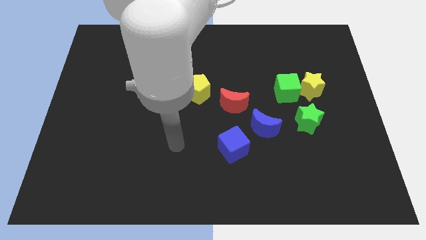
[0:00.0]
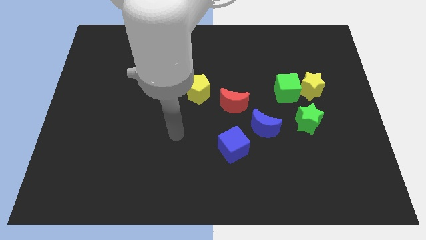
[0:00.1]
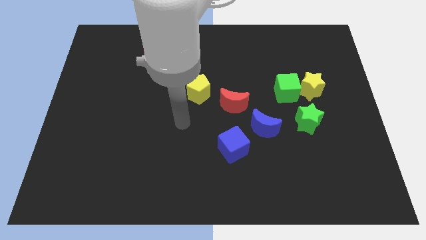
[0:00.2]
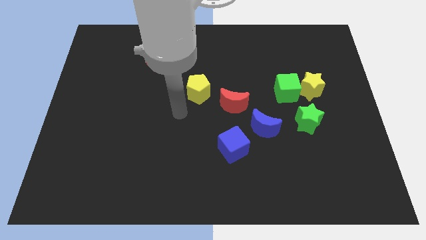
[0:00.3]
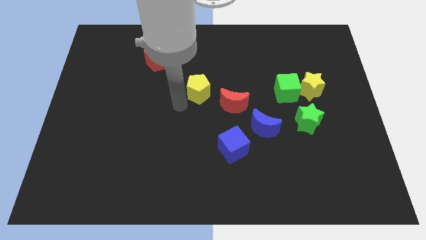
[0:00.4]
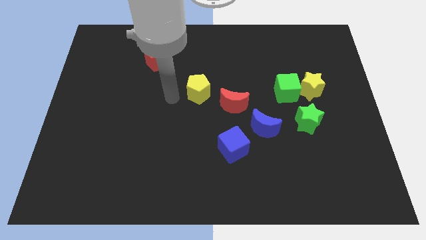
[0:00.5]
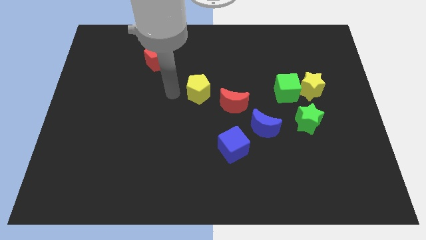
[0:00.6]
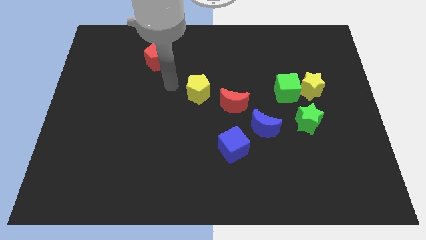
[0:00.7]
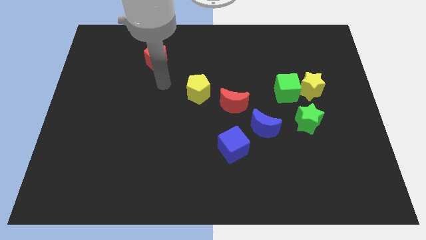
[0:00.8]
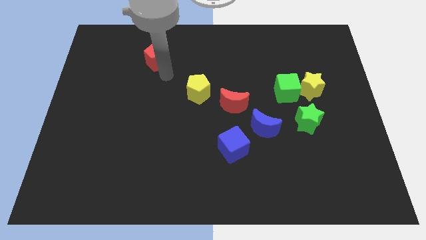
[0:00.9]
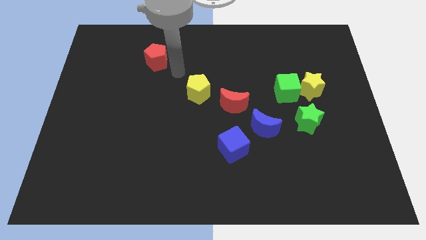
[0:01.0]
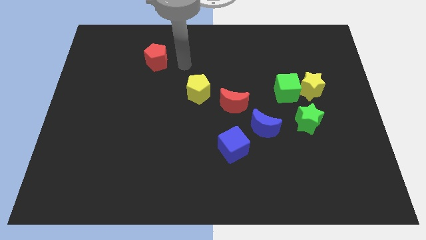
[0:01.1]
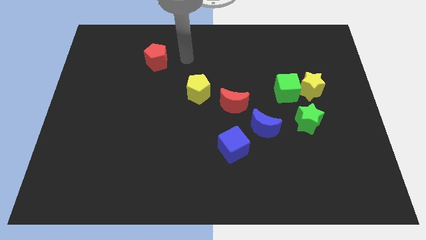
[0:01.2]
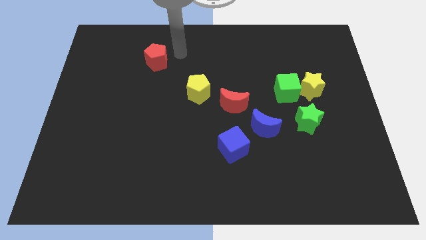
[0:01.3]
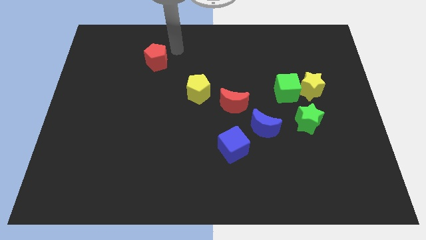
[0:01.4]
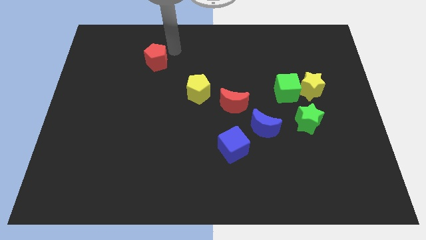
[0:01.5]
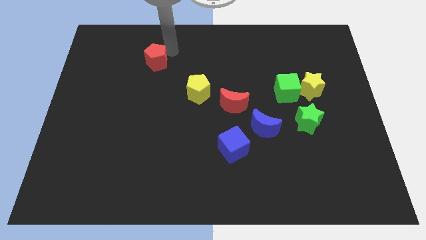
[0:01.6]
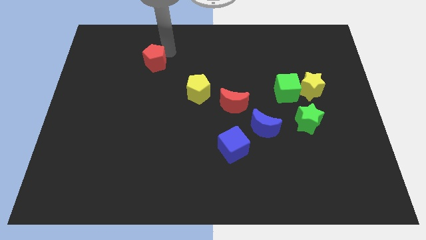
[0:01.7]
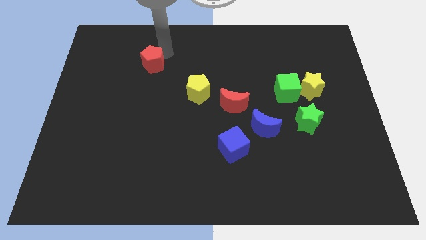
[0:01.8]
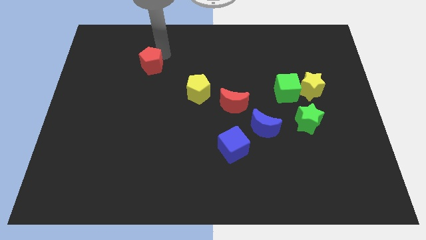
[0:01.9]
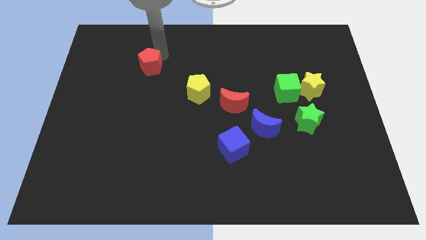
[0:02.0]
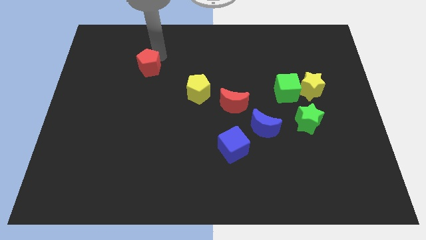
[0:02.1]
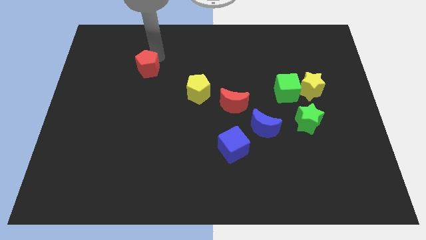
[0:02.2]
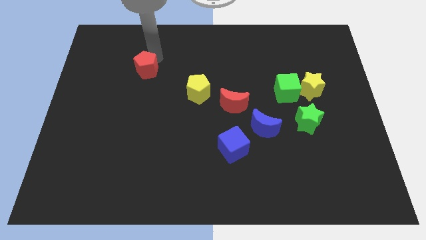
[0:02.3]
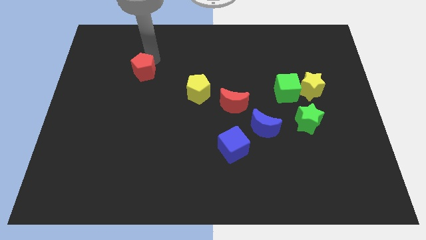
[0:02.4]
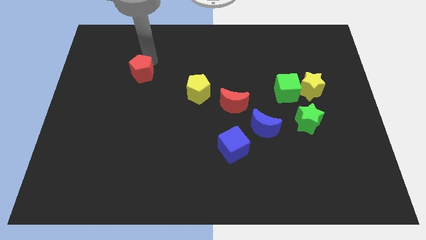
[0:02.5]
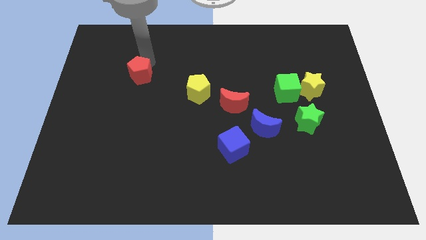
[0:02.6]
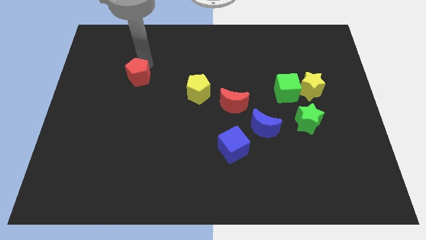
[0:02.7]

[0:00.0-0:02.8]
move the red pentagon slightly diagonally downwards and left

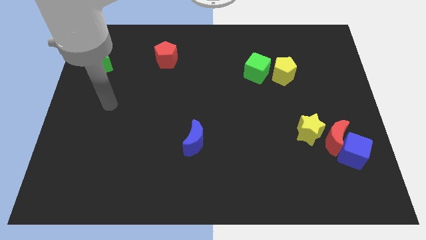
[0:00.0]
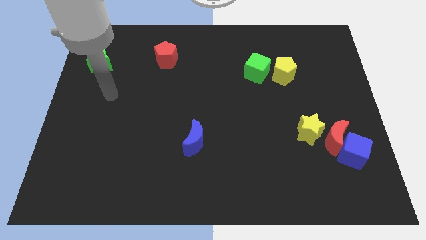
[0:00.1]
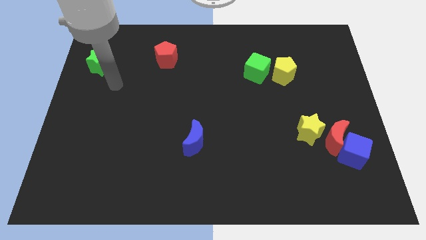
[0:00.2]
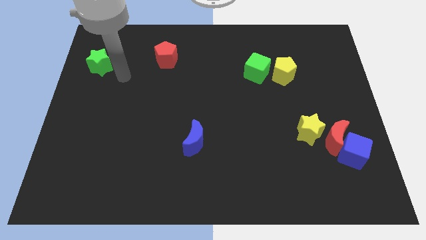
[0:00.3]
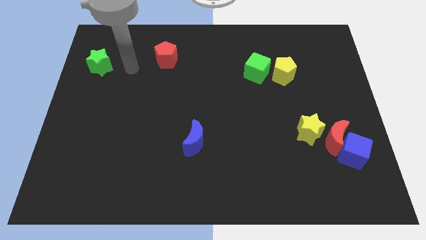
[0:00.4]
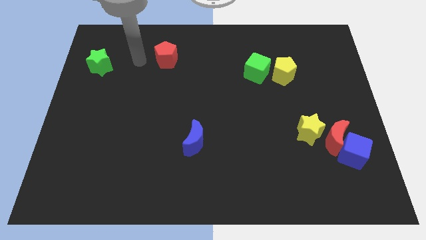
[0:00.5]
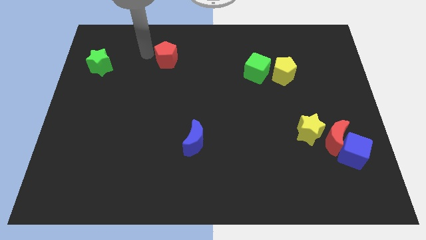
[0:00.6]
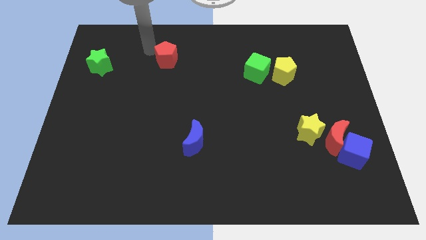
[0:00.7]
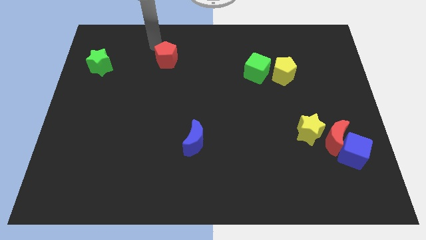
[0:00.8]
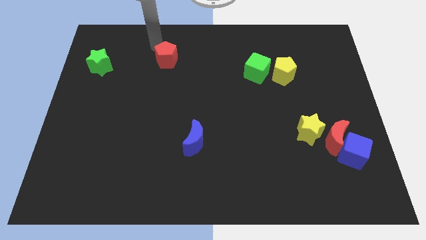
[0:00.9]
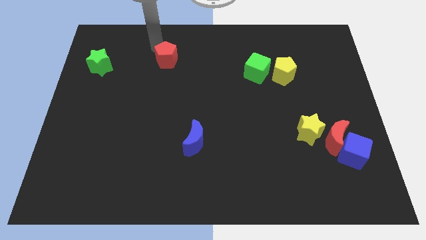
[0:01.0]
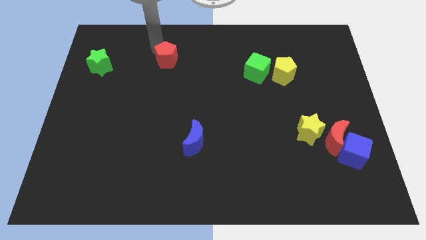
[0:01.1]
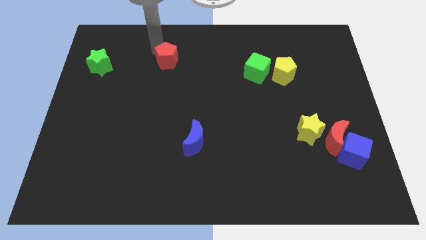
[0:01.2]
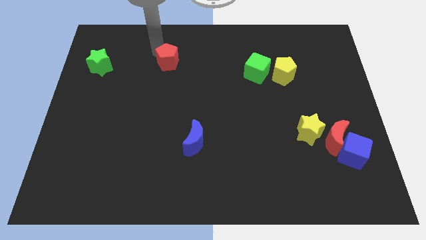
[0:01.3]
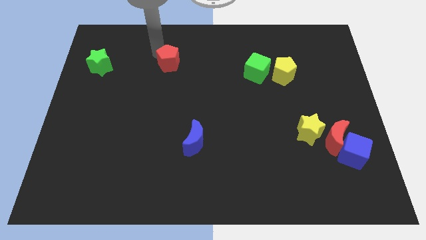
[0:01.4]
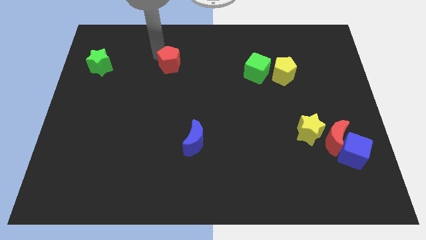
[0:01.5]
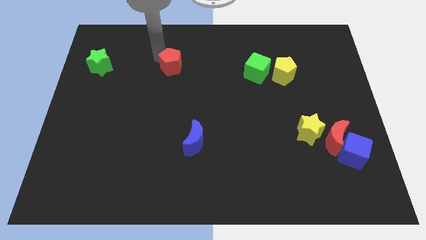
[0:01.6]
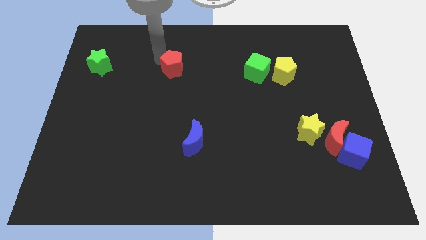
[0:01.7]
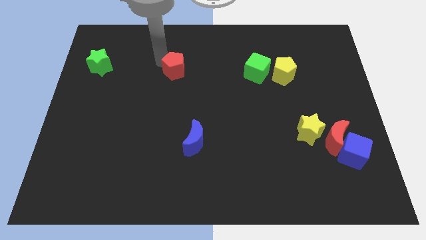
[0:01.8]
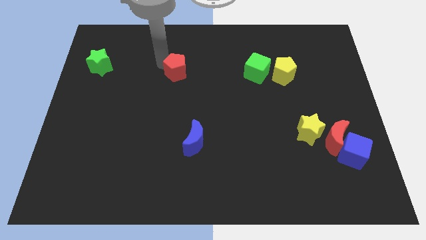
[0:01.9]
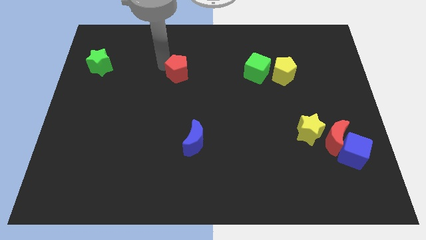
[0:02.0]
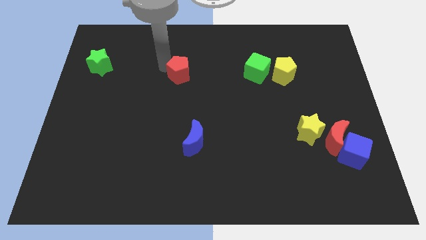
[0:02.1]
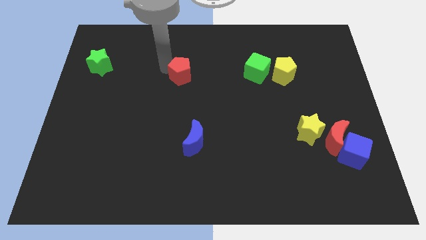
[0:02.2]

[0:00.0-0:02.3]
push the red pentagon down and then to the right a bit

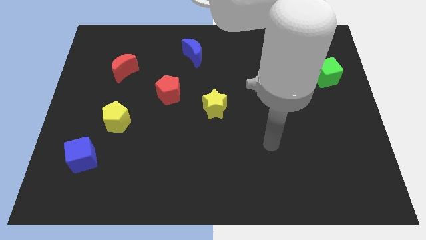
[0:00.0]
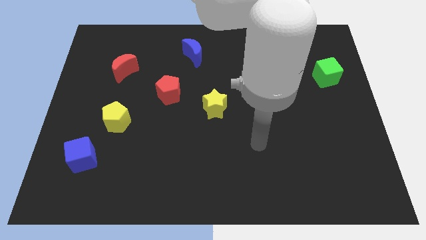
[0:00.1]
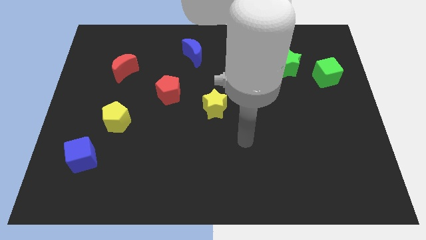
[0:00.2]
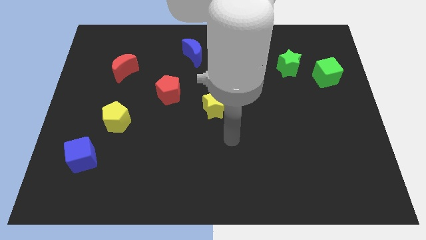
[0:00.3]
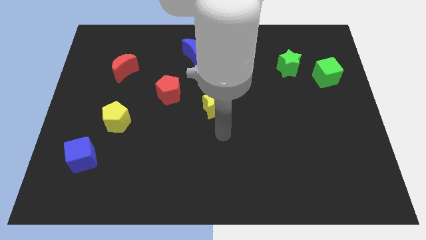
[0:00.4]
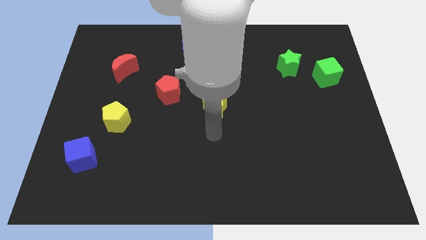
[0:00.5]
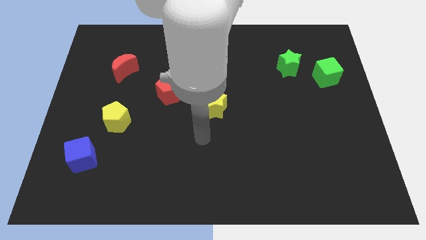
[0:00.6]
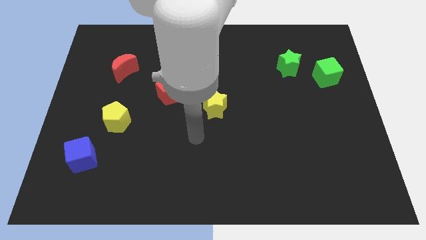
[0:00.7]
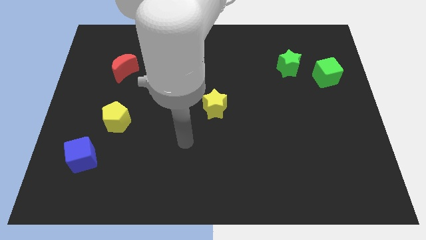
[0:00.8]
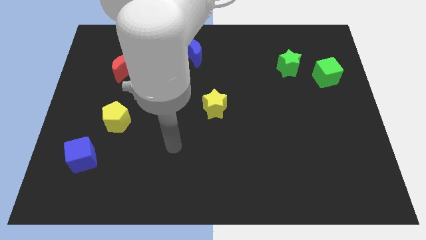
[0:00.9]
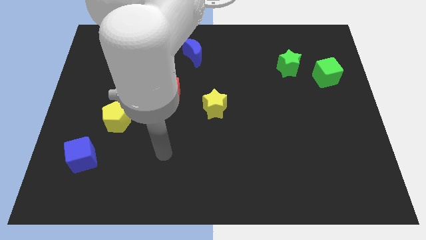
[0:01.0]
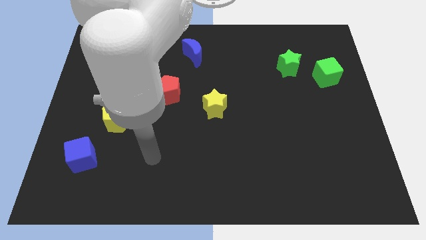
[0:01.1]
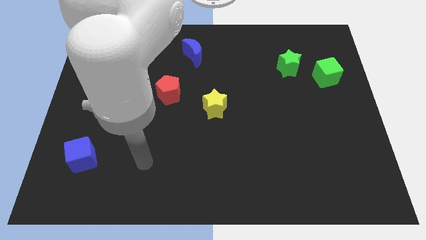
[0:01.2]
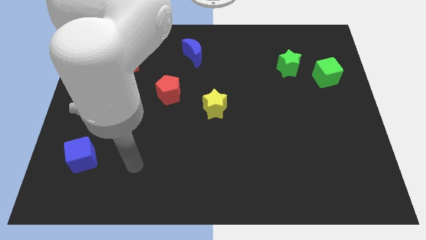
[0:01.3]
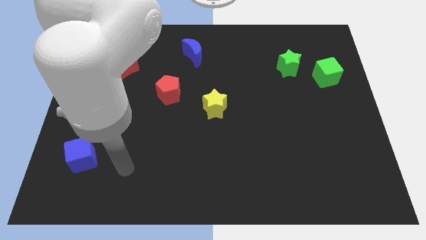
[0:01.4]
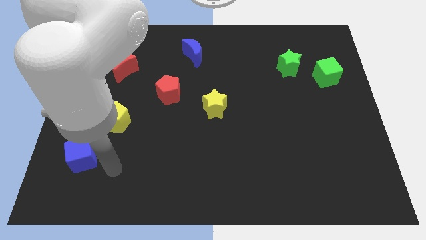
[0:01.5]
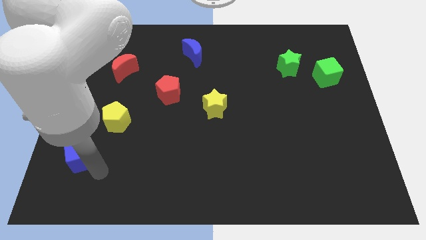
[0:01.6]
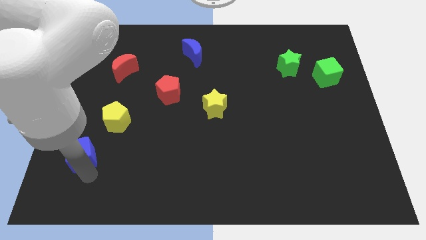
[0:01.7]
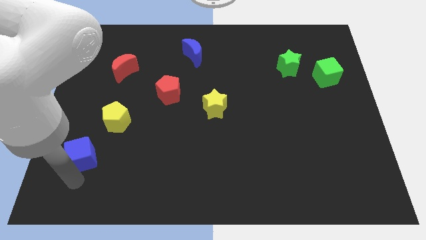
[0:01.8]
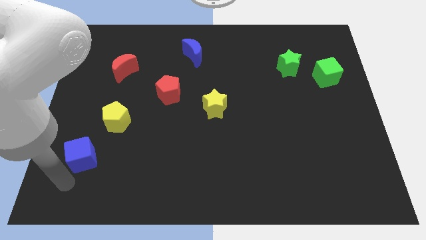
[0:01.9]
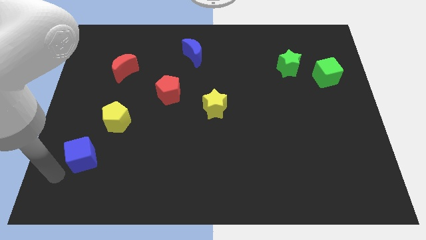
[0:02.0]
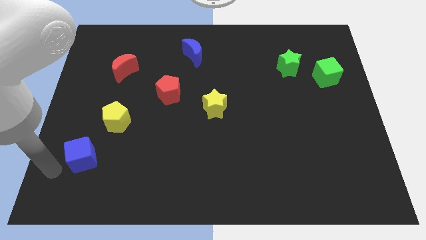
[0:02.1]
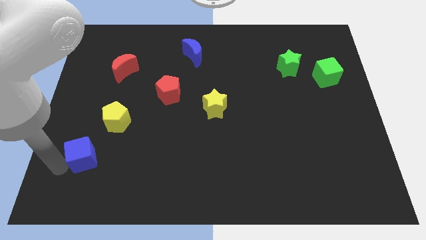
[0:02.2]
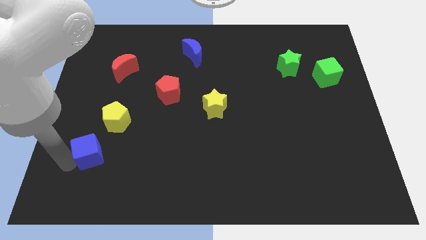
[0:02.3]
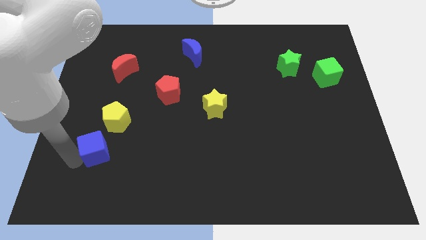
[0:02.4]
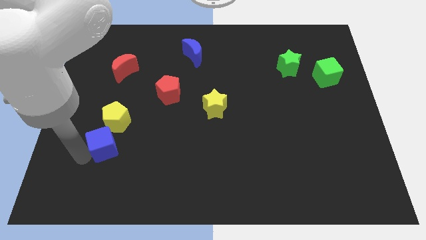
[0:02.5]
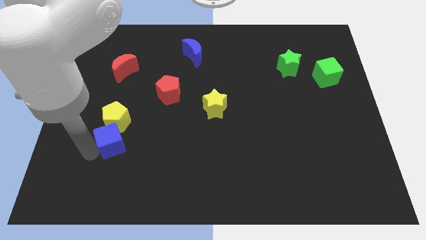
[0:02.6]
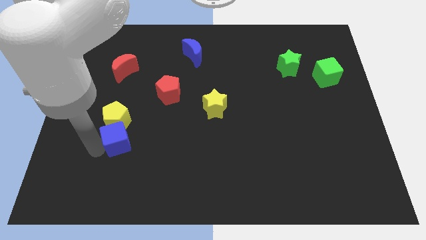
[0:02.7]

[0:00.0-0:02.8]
move the blue cube upwards and then to the right somewhat
